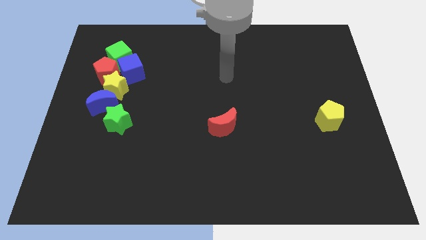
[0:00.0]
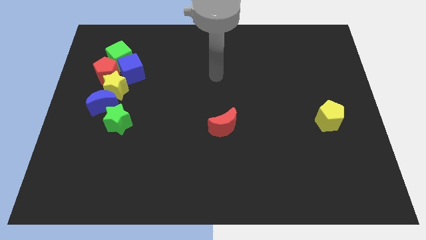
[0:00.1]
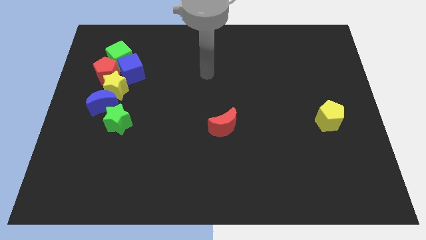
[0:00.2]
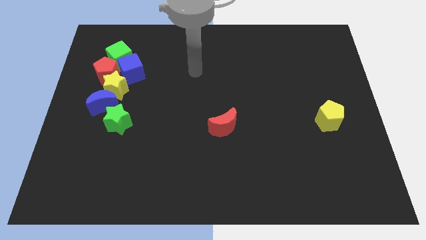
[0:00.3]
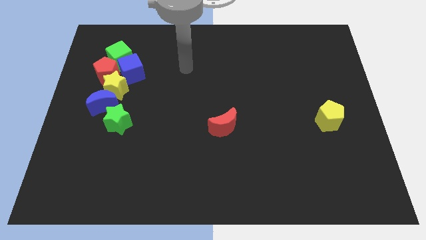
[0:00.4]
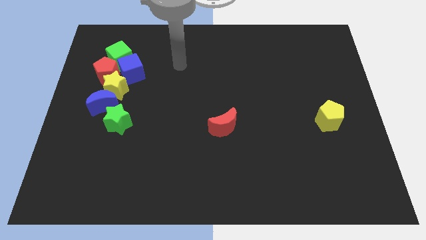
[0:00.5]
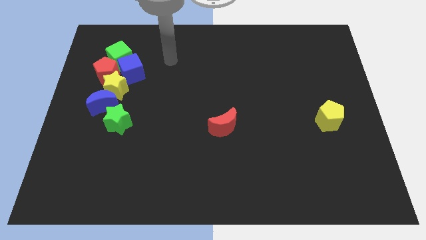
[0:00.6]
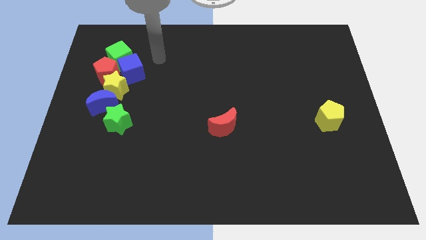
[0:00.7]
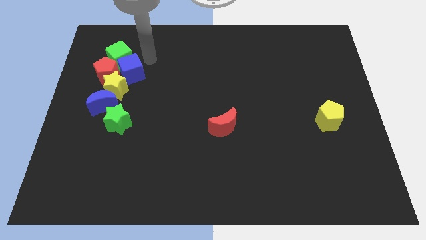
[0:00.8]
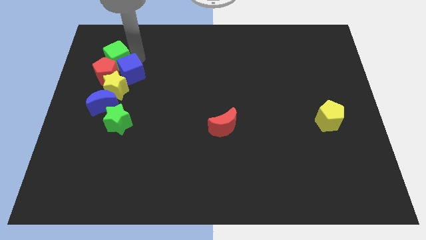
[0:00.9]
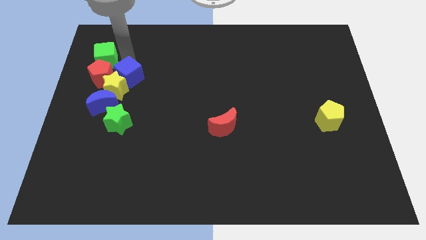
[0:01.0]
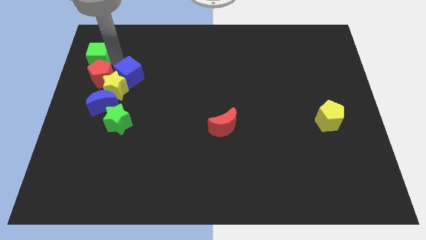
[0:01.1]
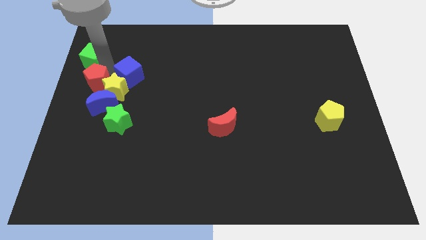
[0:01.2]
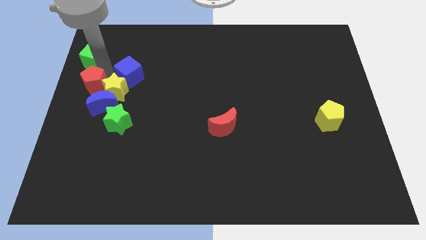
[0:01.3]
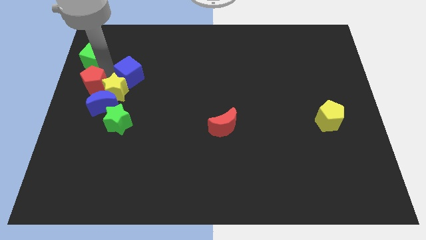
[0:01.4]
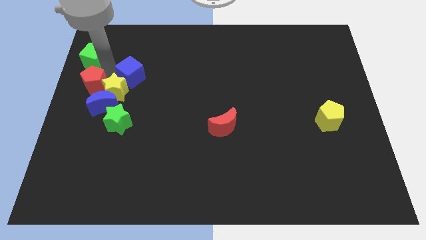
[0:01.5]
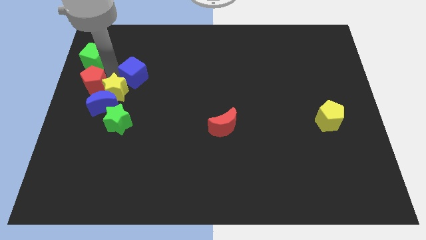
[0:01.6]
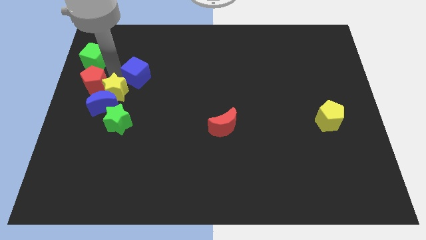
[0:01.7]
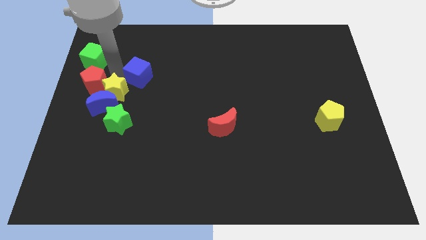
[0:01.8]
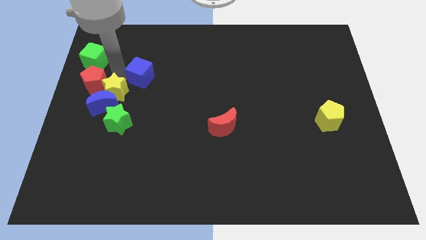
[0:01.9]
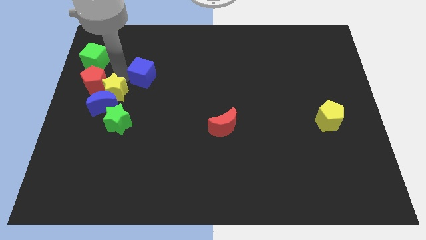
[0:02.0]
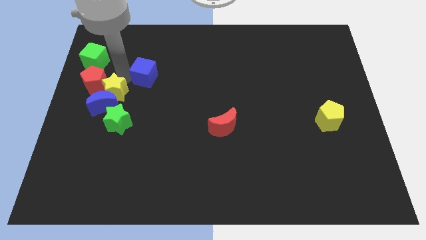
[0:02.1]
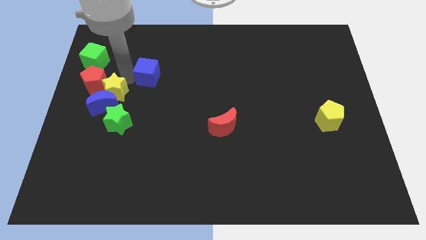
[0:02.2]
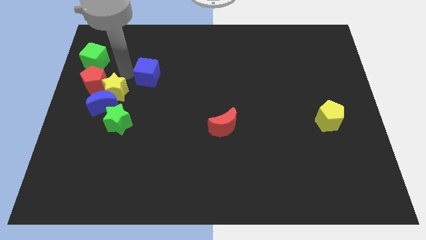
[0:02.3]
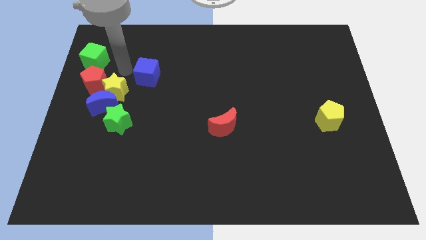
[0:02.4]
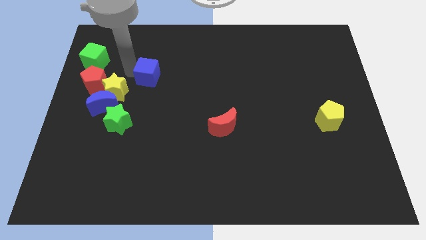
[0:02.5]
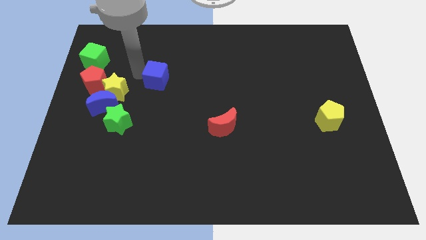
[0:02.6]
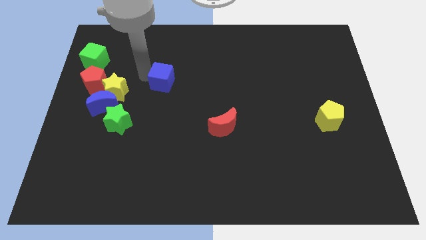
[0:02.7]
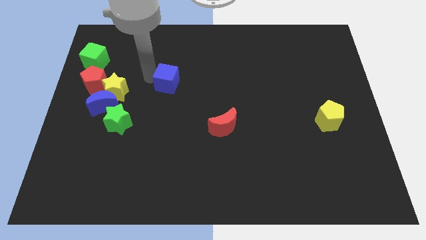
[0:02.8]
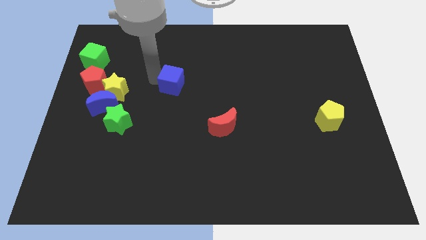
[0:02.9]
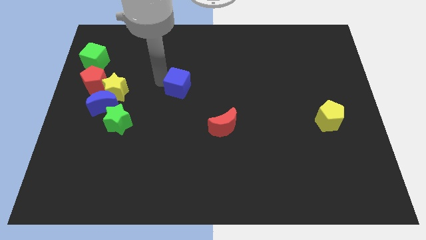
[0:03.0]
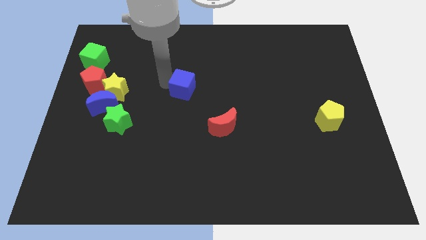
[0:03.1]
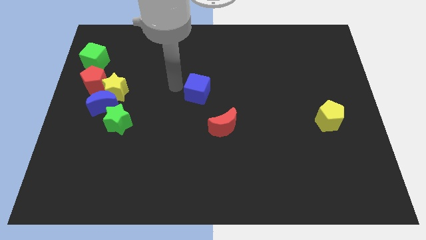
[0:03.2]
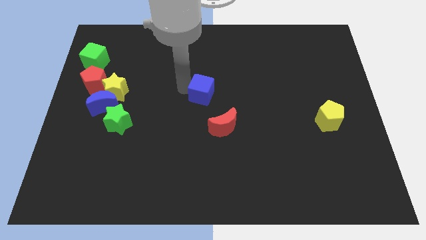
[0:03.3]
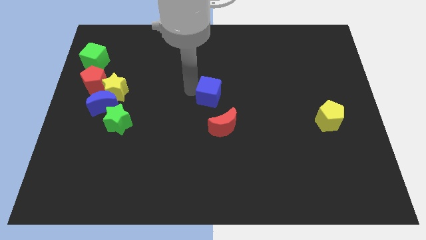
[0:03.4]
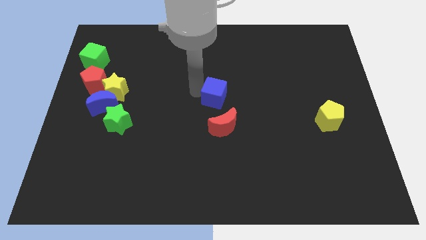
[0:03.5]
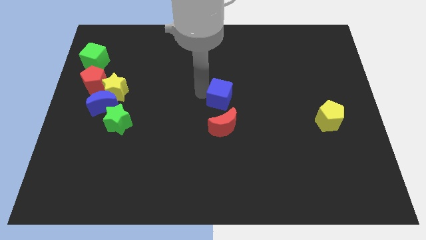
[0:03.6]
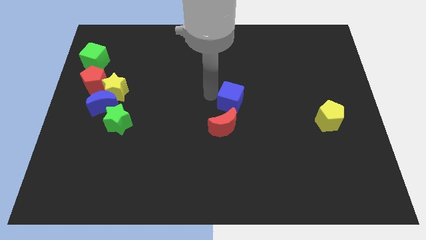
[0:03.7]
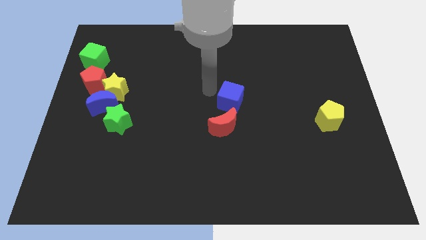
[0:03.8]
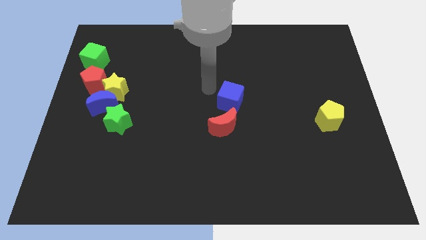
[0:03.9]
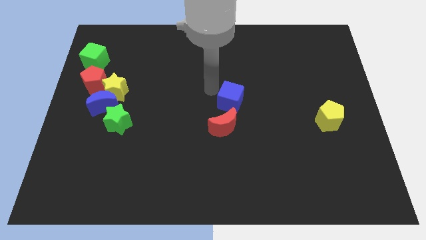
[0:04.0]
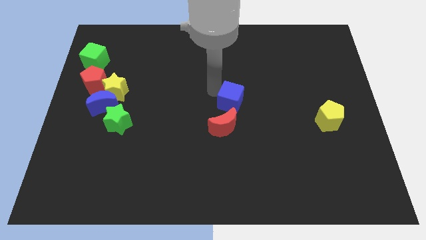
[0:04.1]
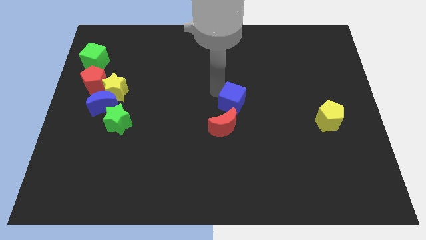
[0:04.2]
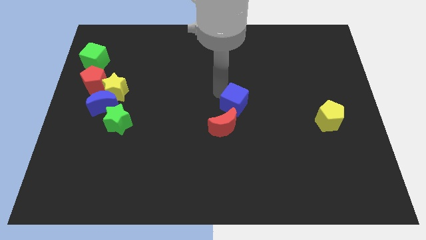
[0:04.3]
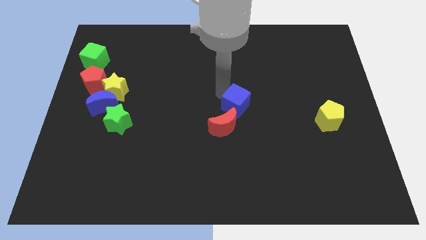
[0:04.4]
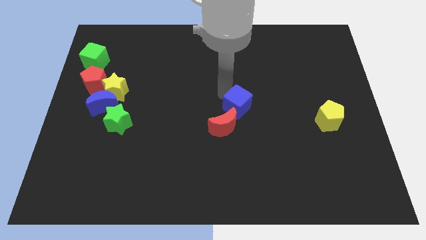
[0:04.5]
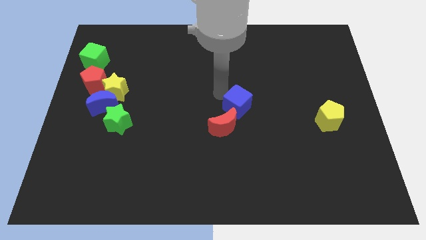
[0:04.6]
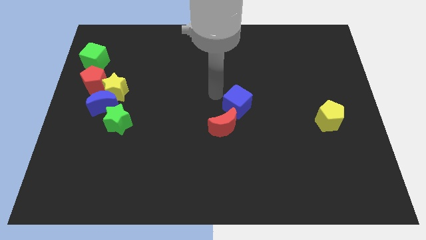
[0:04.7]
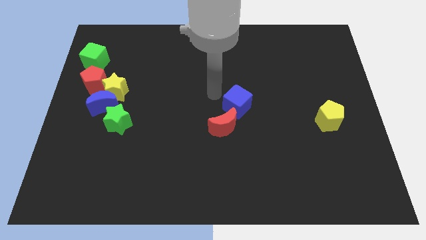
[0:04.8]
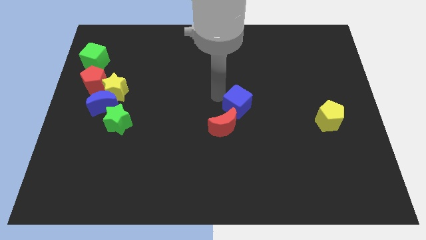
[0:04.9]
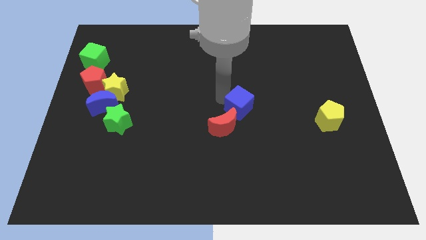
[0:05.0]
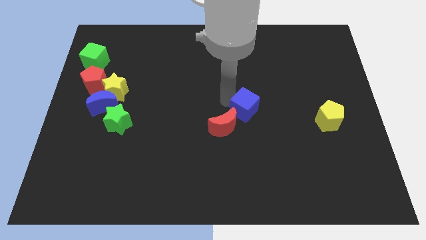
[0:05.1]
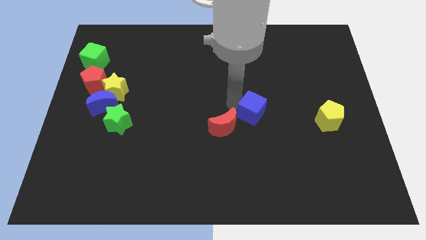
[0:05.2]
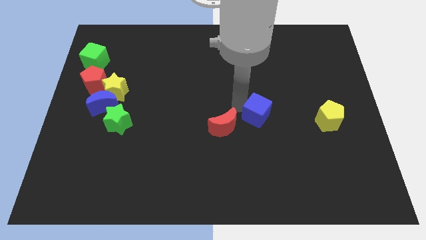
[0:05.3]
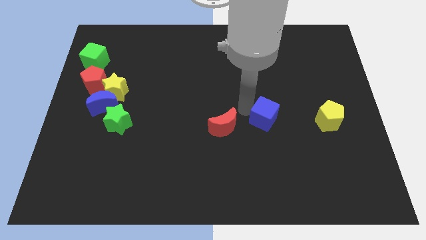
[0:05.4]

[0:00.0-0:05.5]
move the blue cube to the left side of the yellow pentagon

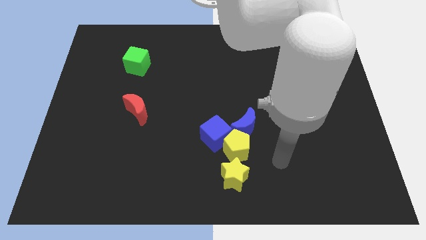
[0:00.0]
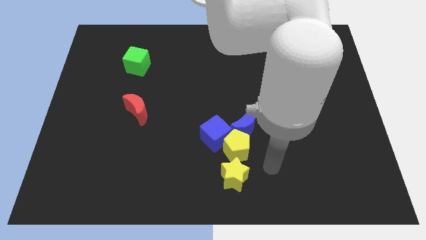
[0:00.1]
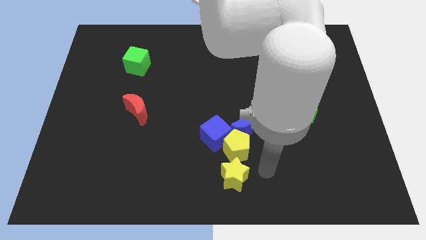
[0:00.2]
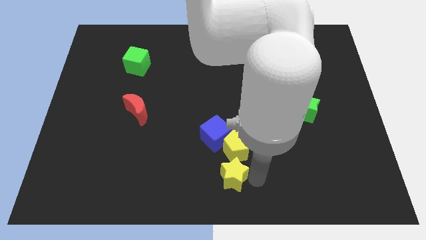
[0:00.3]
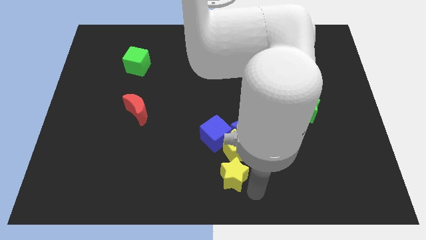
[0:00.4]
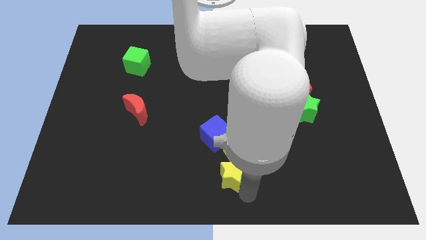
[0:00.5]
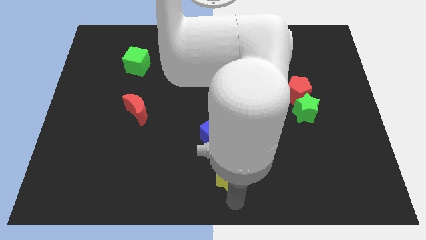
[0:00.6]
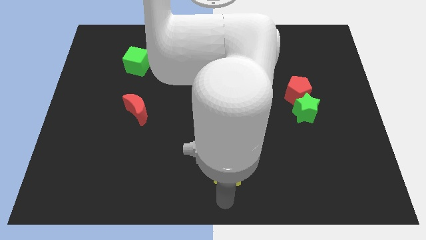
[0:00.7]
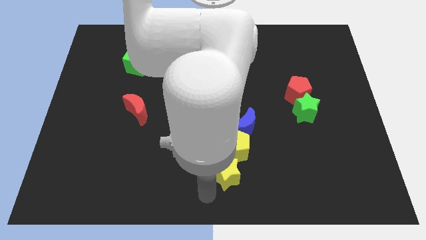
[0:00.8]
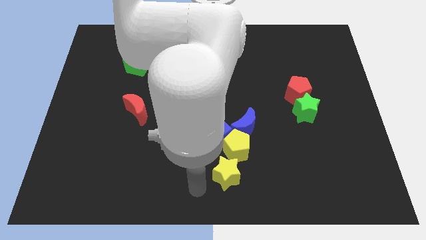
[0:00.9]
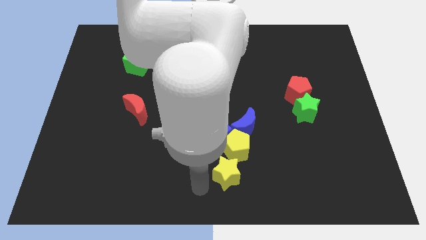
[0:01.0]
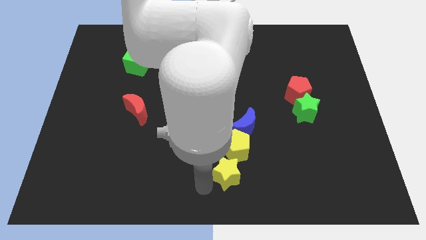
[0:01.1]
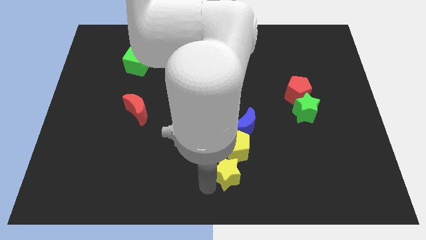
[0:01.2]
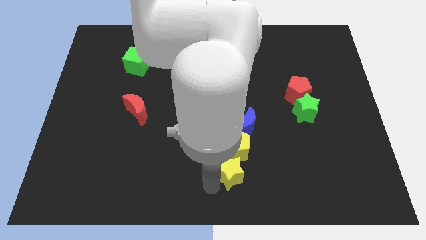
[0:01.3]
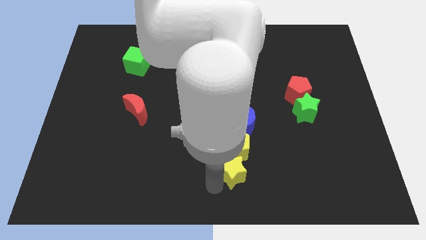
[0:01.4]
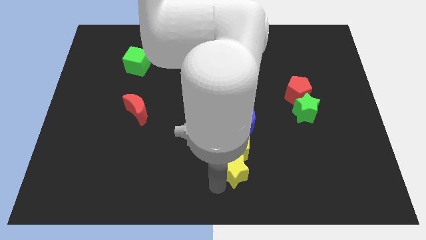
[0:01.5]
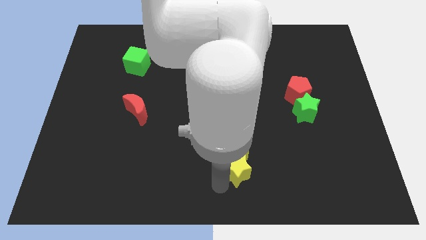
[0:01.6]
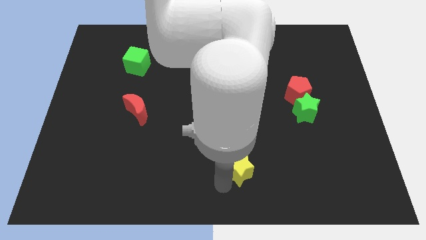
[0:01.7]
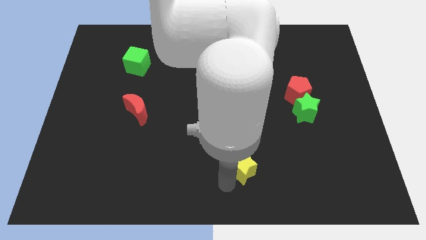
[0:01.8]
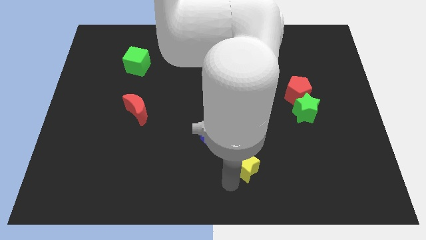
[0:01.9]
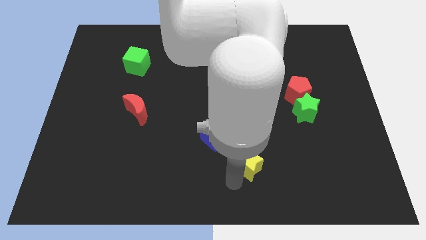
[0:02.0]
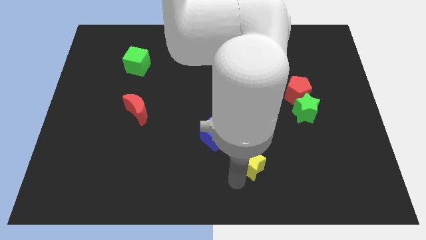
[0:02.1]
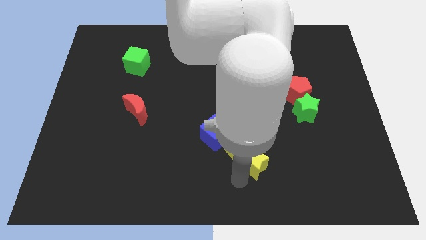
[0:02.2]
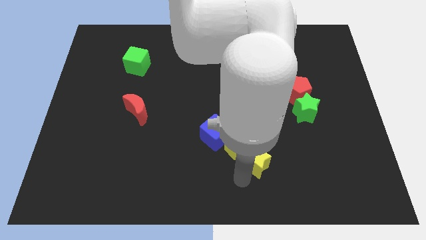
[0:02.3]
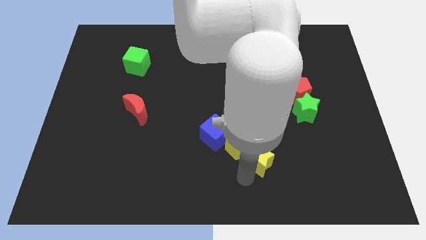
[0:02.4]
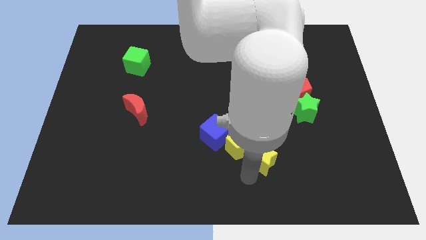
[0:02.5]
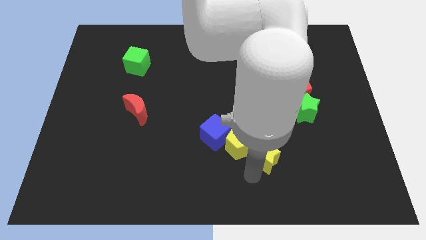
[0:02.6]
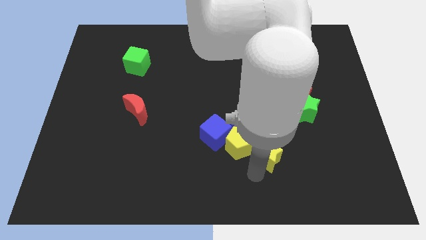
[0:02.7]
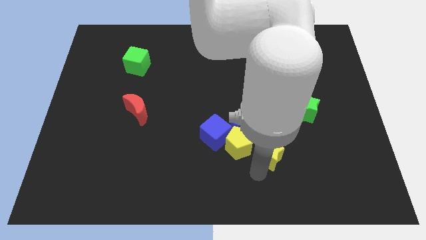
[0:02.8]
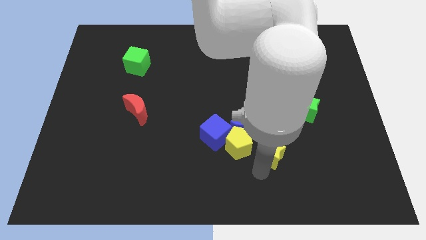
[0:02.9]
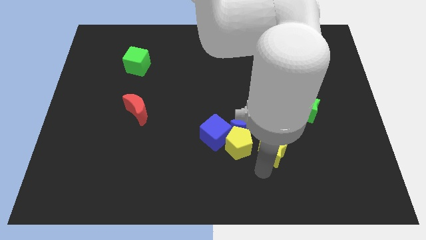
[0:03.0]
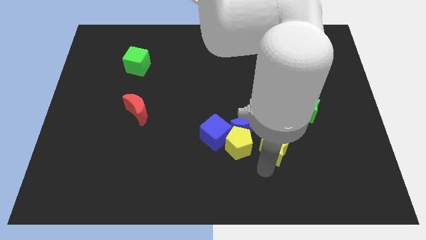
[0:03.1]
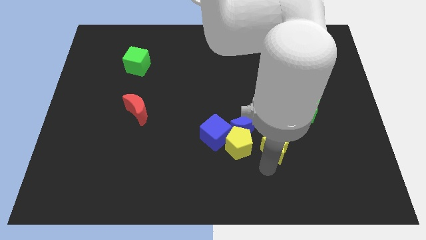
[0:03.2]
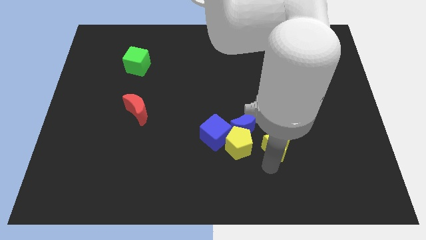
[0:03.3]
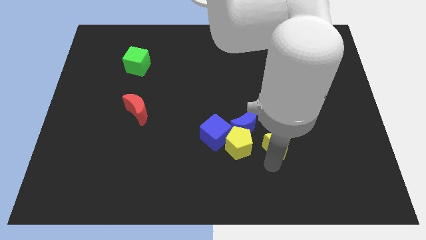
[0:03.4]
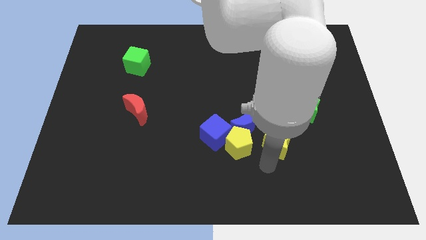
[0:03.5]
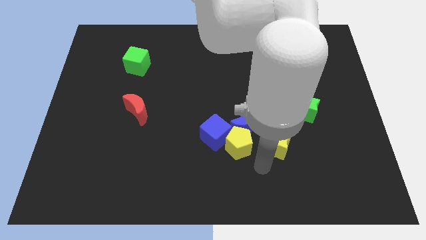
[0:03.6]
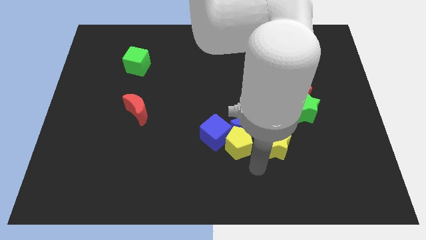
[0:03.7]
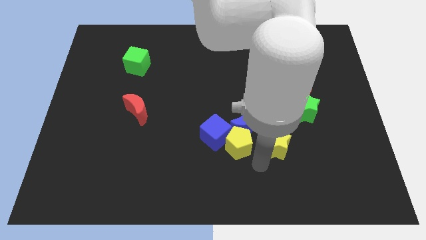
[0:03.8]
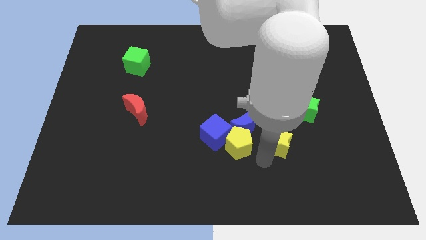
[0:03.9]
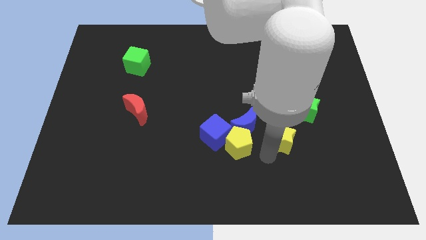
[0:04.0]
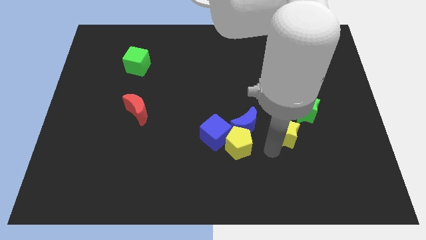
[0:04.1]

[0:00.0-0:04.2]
slide the yellow star to the bottom side of the red pentagon
